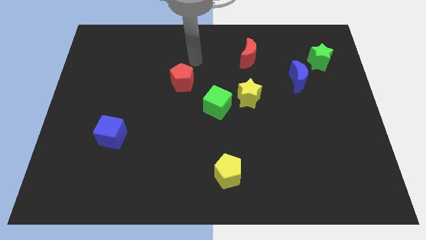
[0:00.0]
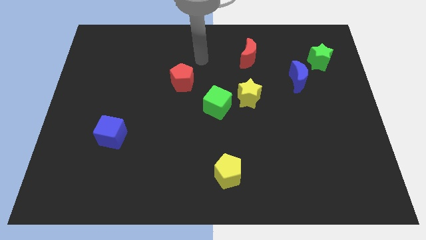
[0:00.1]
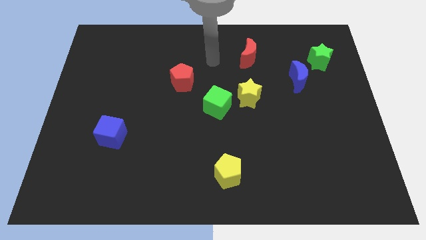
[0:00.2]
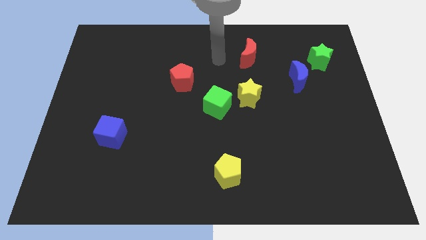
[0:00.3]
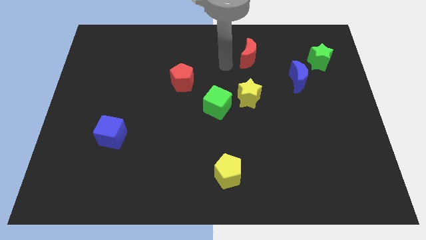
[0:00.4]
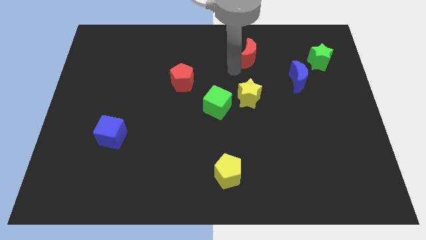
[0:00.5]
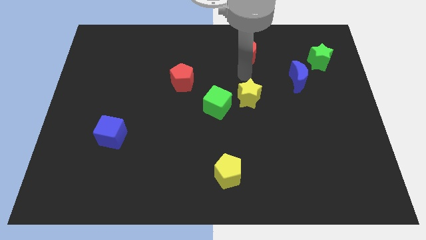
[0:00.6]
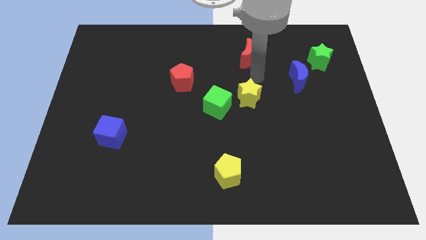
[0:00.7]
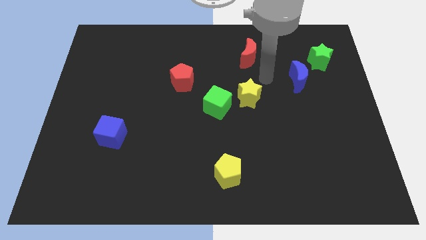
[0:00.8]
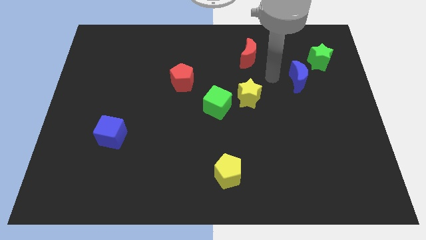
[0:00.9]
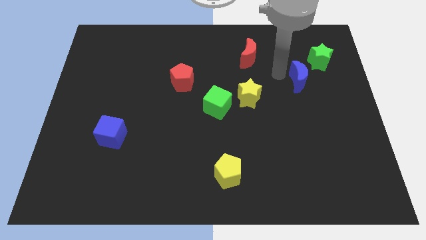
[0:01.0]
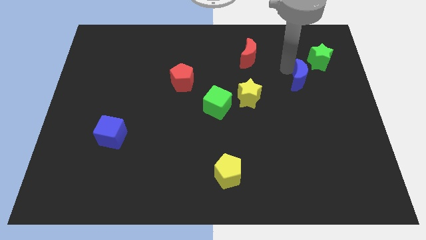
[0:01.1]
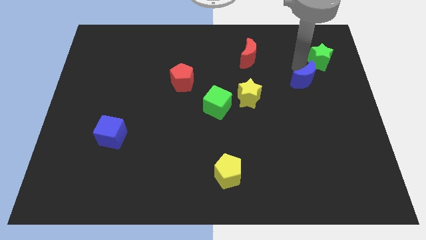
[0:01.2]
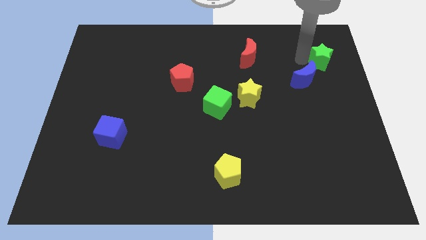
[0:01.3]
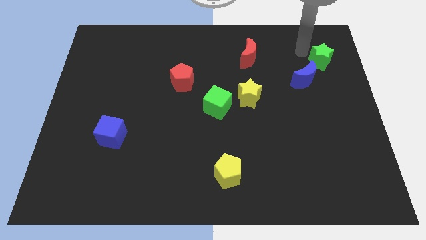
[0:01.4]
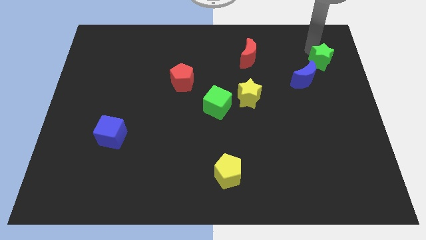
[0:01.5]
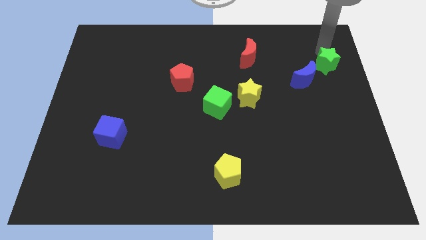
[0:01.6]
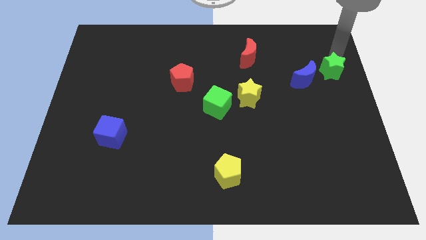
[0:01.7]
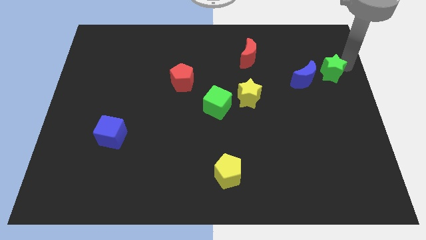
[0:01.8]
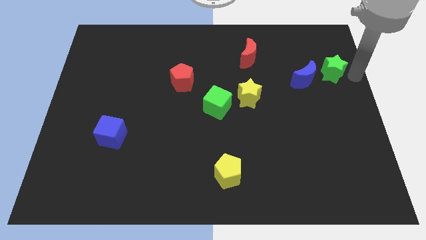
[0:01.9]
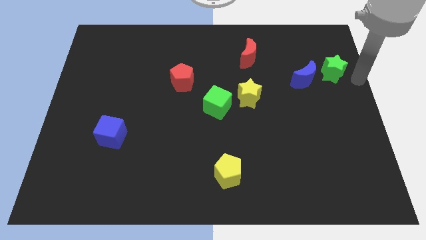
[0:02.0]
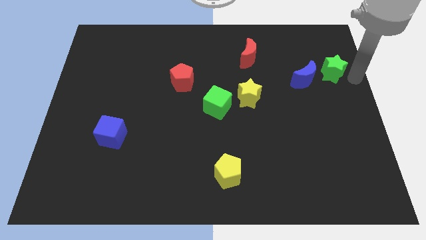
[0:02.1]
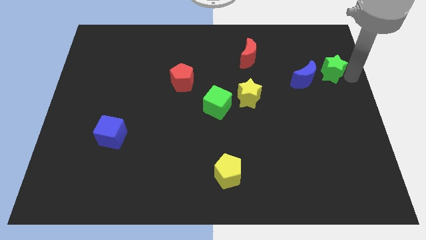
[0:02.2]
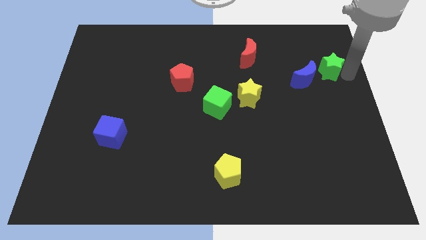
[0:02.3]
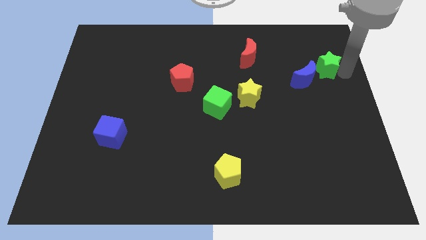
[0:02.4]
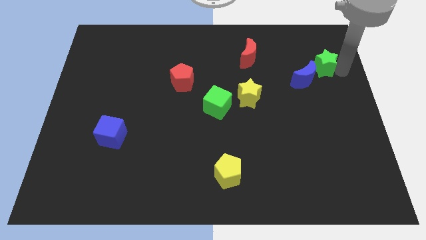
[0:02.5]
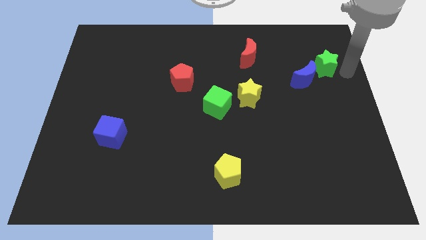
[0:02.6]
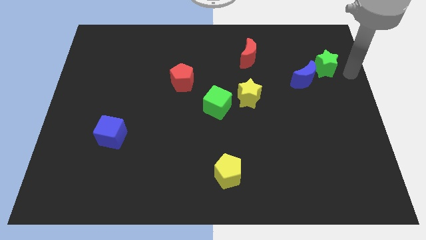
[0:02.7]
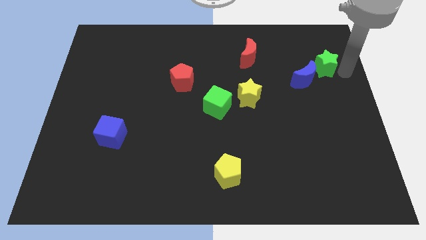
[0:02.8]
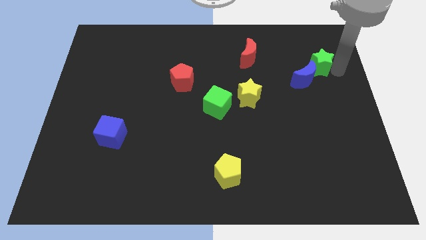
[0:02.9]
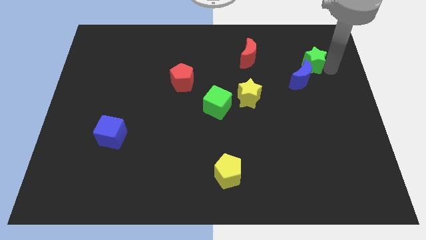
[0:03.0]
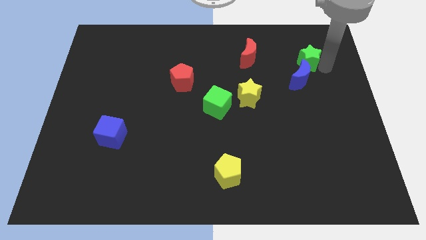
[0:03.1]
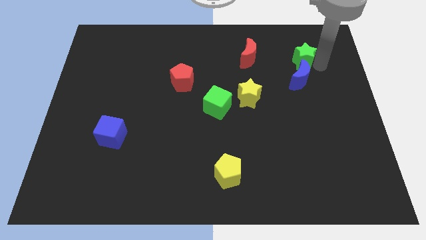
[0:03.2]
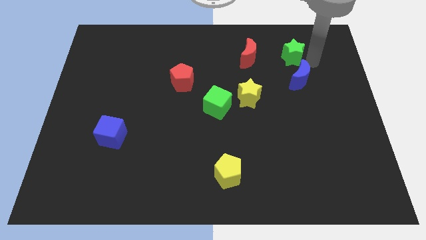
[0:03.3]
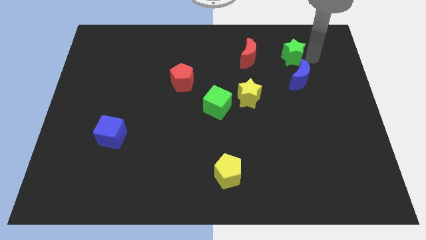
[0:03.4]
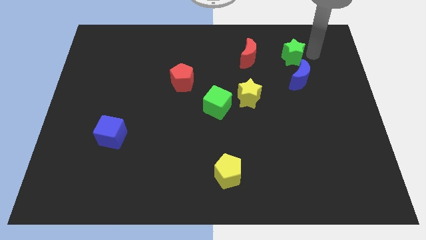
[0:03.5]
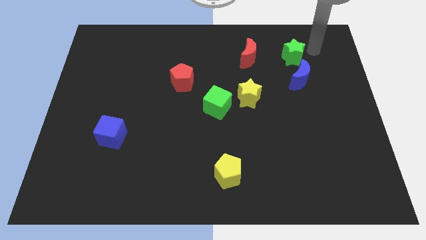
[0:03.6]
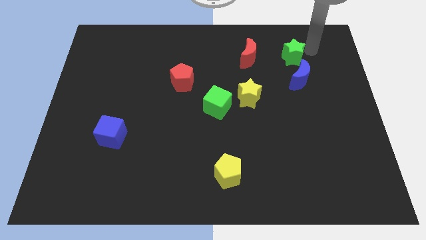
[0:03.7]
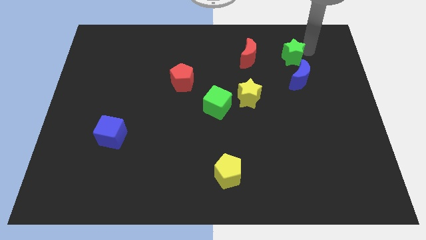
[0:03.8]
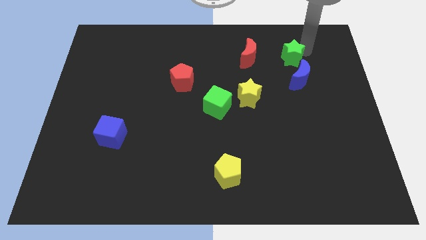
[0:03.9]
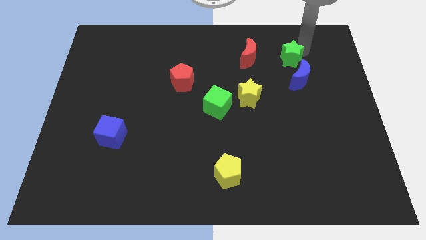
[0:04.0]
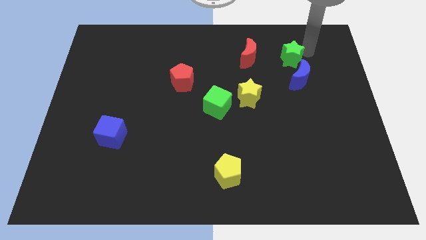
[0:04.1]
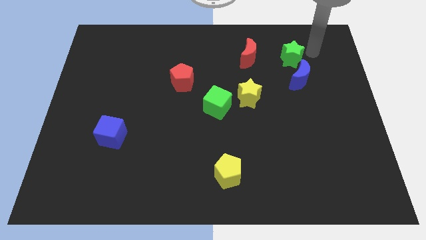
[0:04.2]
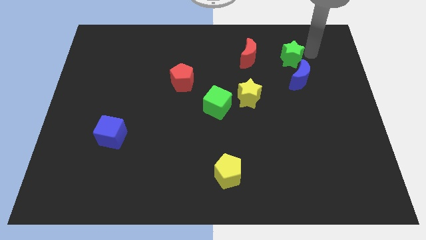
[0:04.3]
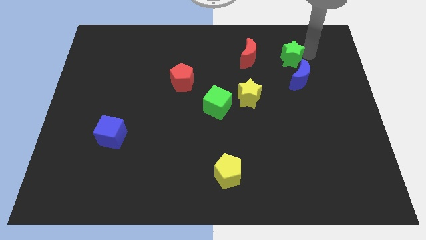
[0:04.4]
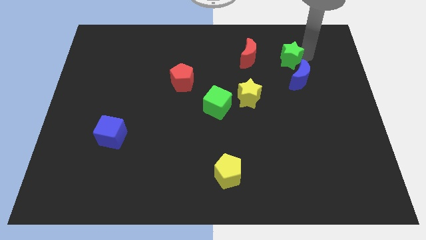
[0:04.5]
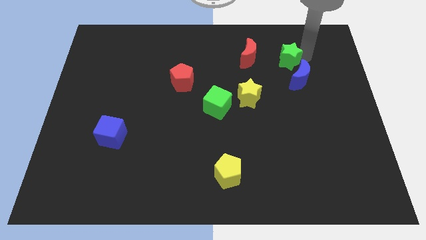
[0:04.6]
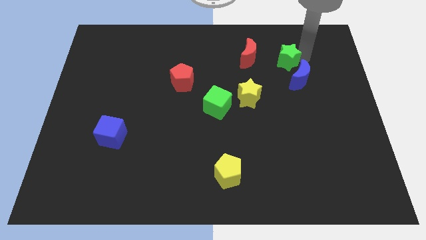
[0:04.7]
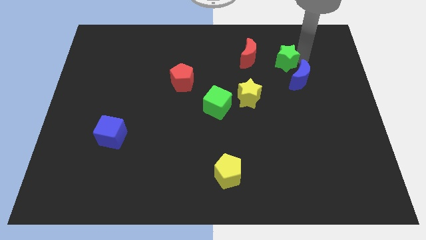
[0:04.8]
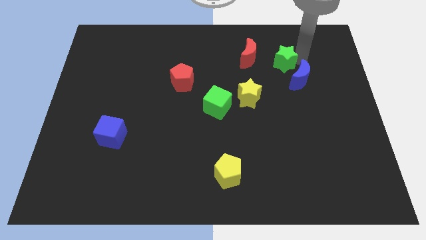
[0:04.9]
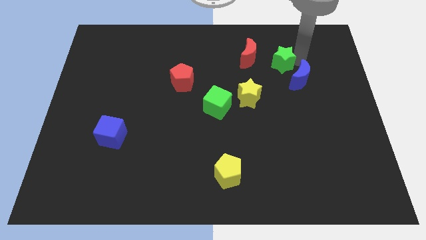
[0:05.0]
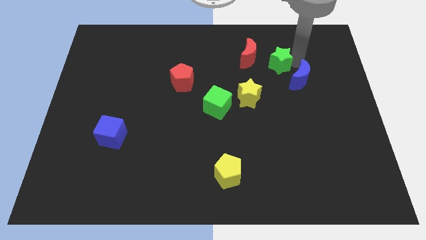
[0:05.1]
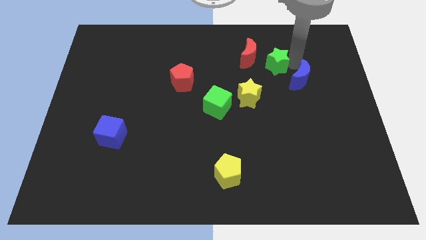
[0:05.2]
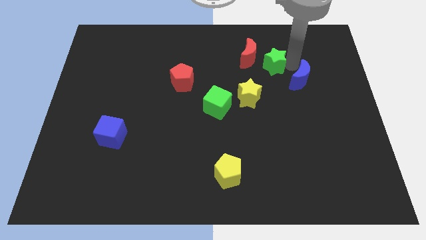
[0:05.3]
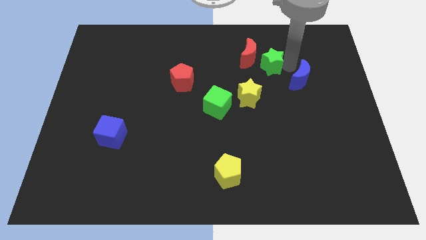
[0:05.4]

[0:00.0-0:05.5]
slide the green star close to the red moon

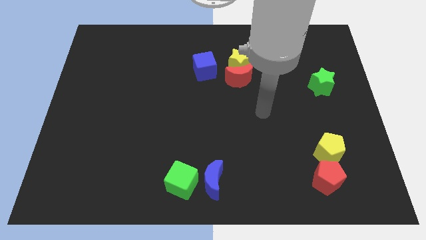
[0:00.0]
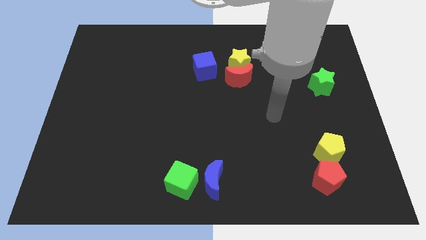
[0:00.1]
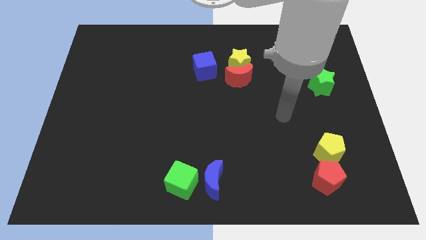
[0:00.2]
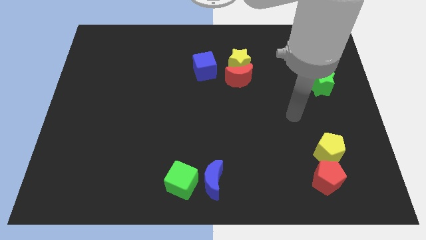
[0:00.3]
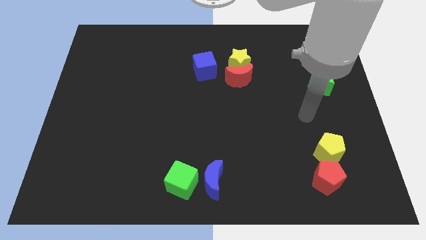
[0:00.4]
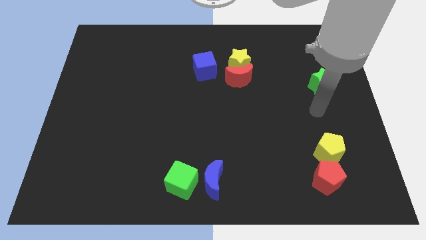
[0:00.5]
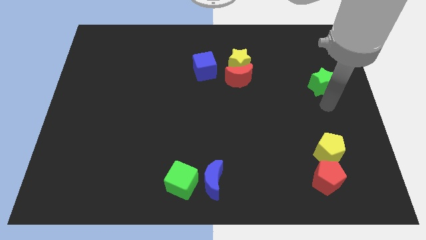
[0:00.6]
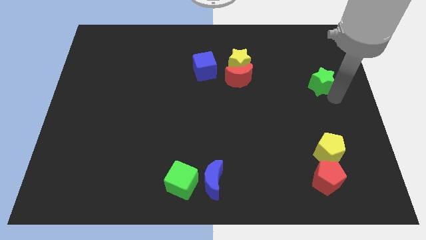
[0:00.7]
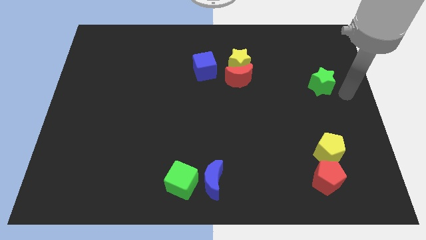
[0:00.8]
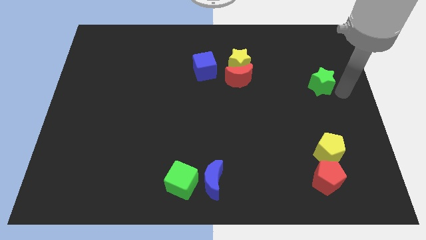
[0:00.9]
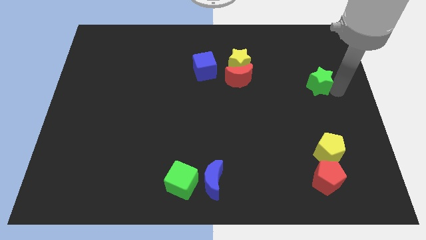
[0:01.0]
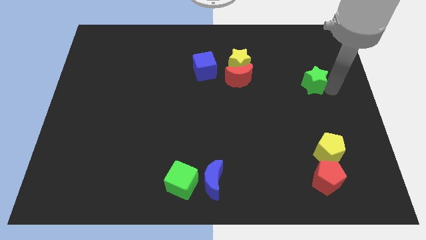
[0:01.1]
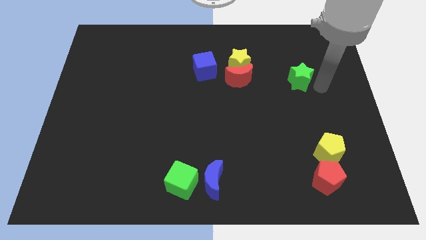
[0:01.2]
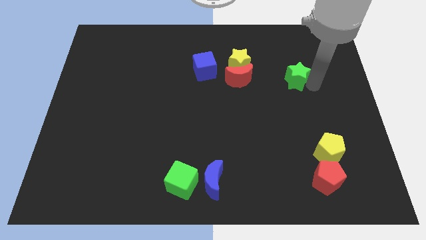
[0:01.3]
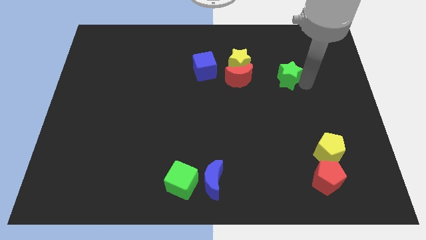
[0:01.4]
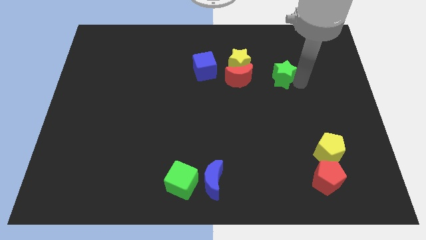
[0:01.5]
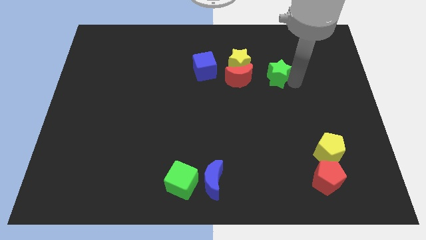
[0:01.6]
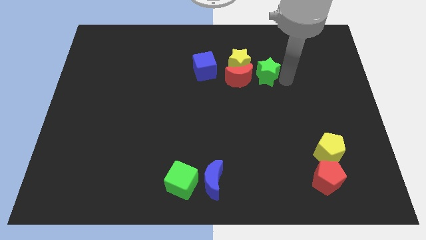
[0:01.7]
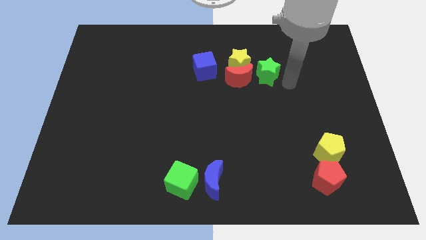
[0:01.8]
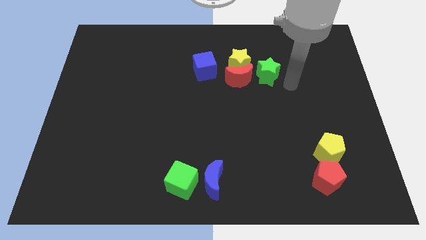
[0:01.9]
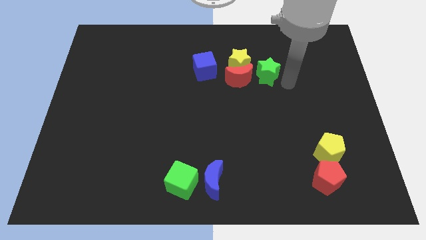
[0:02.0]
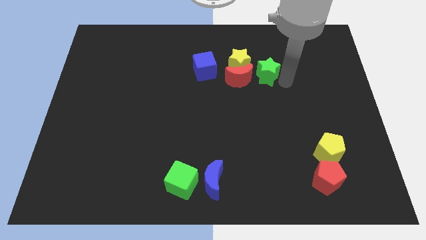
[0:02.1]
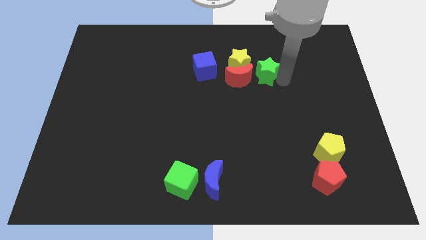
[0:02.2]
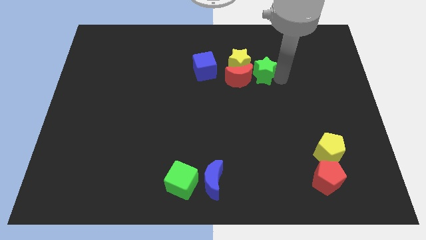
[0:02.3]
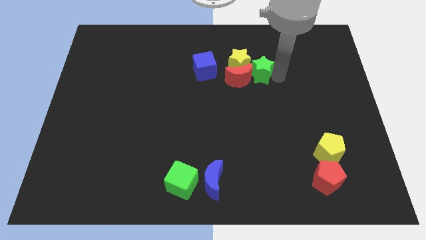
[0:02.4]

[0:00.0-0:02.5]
push the green star close to the yellow star
